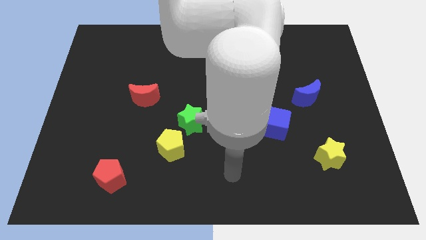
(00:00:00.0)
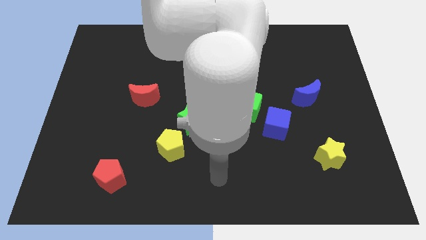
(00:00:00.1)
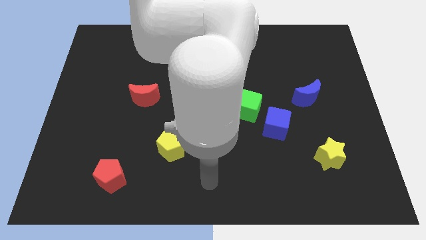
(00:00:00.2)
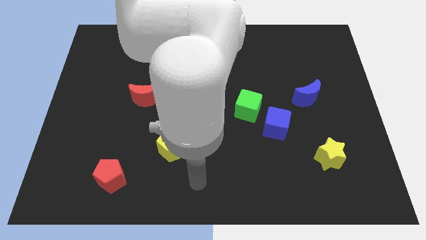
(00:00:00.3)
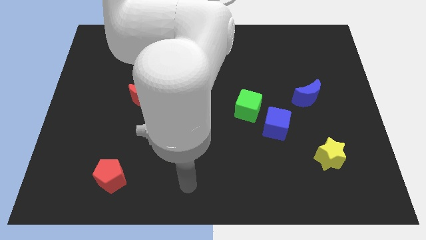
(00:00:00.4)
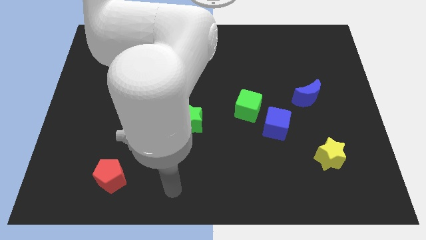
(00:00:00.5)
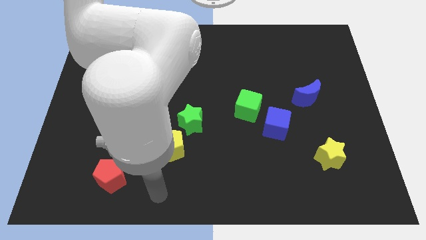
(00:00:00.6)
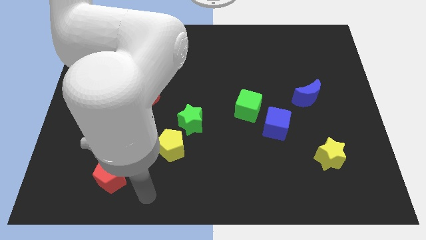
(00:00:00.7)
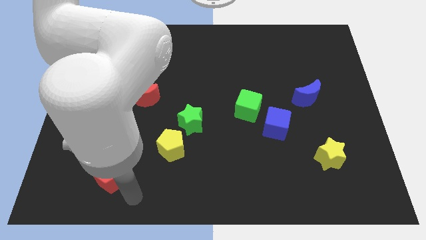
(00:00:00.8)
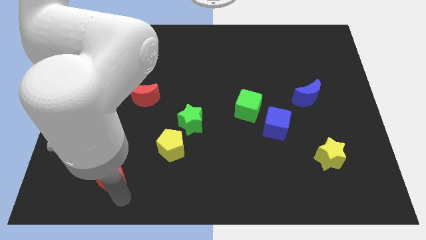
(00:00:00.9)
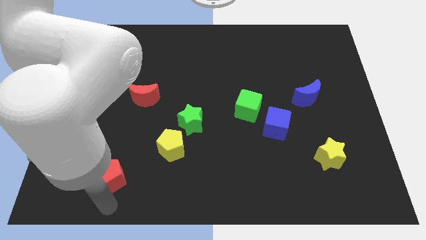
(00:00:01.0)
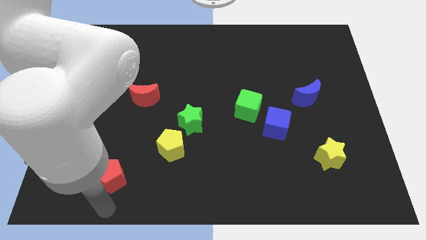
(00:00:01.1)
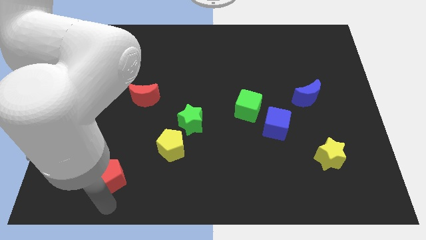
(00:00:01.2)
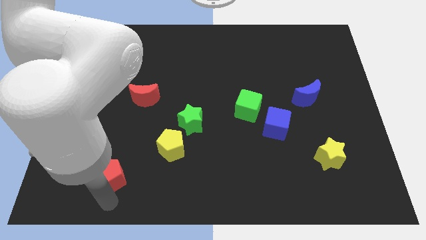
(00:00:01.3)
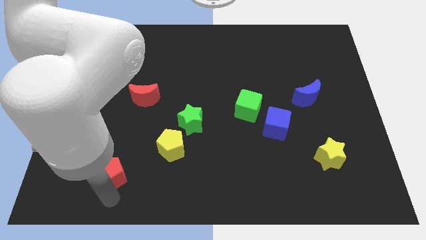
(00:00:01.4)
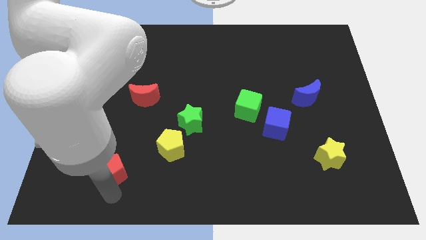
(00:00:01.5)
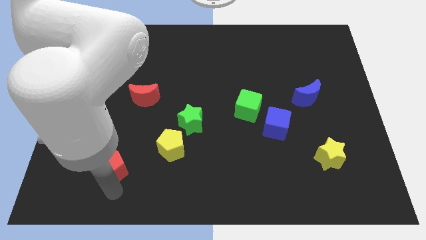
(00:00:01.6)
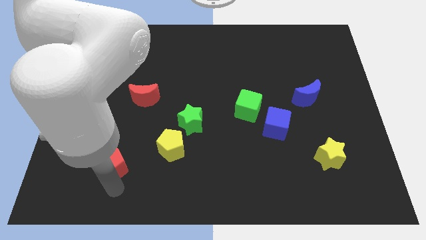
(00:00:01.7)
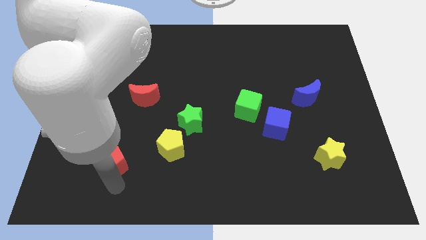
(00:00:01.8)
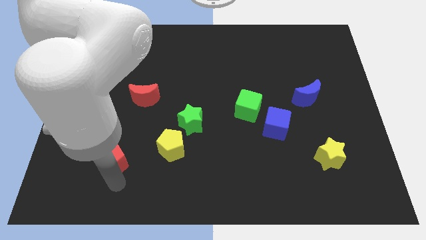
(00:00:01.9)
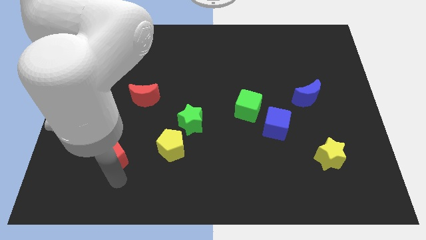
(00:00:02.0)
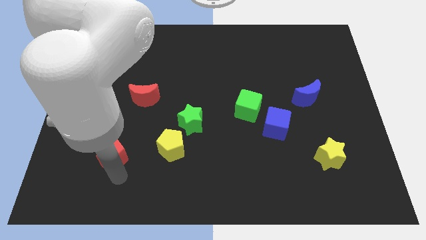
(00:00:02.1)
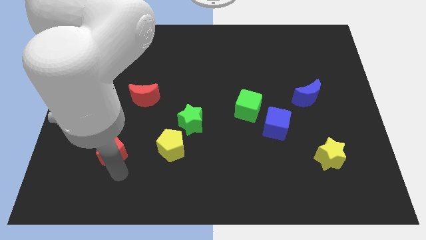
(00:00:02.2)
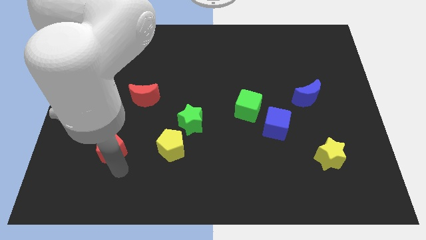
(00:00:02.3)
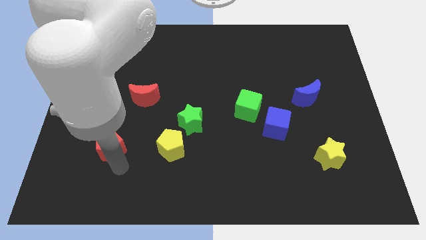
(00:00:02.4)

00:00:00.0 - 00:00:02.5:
slide the red pentagon somewhat up

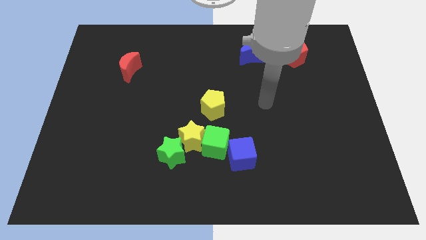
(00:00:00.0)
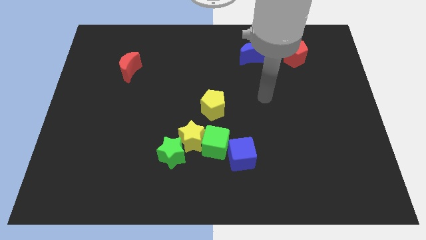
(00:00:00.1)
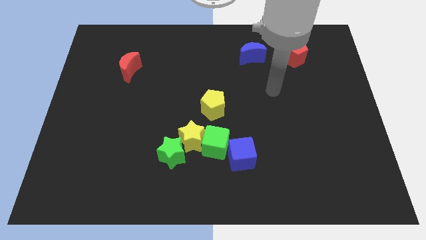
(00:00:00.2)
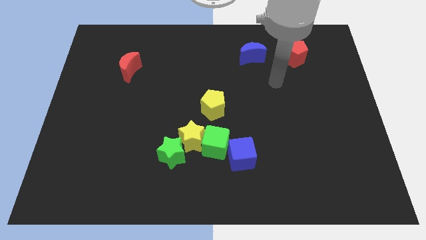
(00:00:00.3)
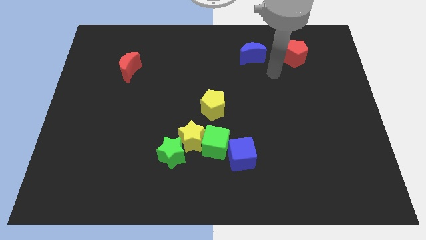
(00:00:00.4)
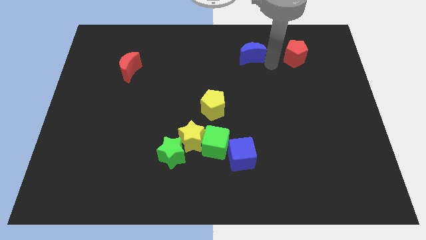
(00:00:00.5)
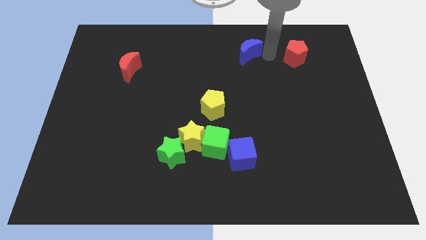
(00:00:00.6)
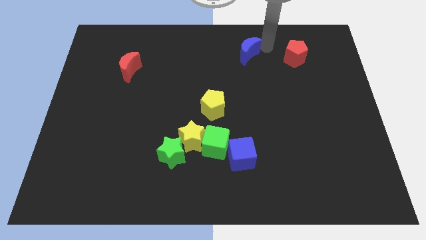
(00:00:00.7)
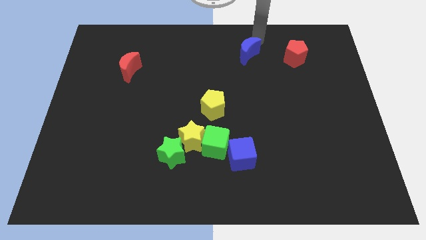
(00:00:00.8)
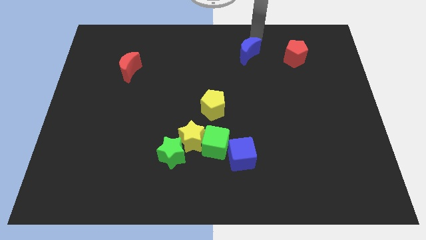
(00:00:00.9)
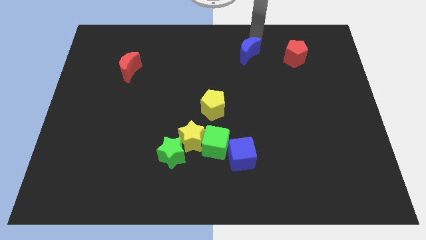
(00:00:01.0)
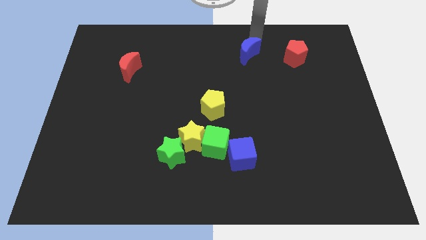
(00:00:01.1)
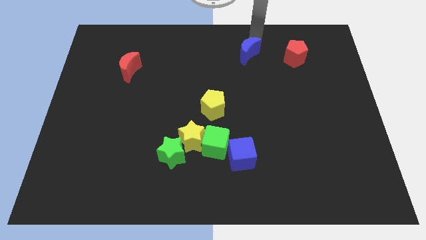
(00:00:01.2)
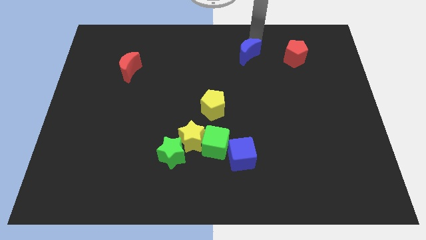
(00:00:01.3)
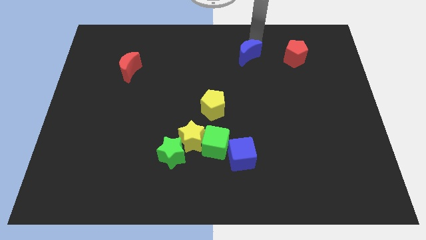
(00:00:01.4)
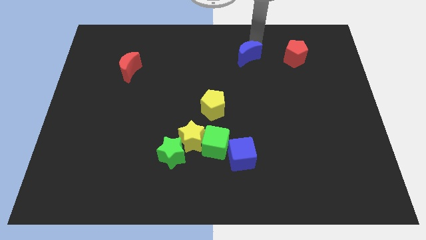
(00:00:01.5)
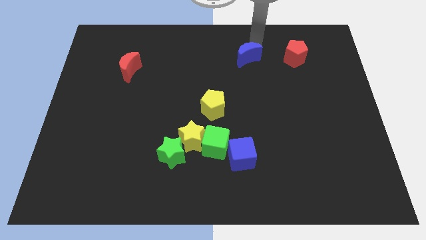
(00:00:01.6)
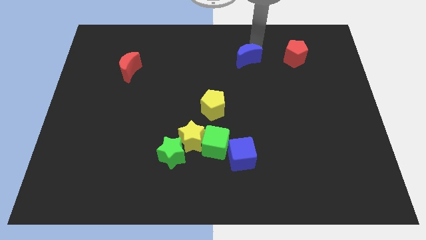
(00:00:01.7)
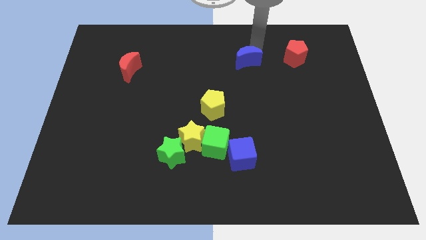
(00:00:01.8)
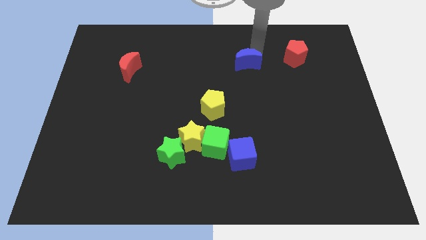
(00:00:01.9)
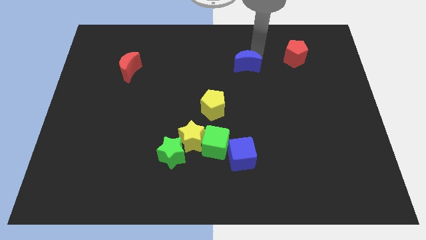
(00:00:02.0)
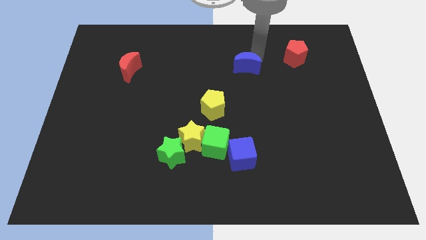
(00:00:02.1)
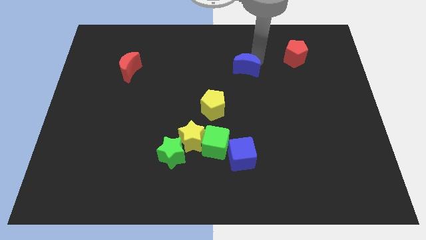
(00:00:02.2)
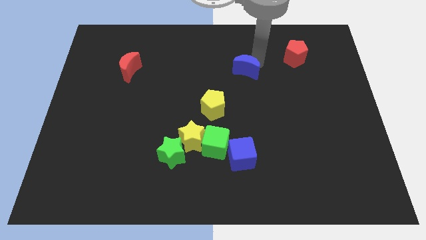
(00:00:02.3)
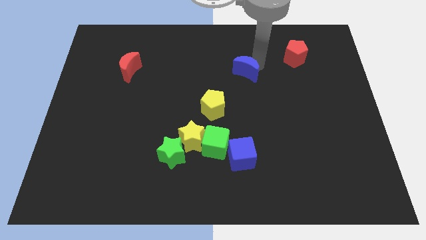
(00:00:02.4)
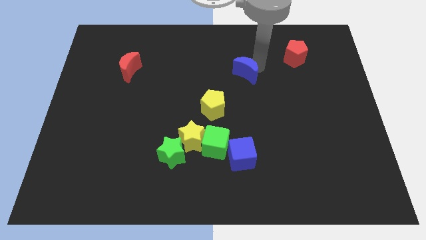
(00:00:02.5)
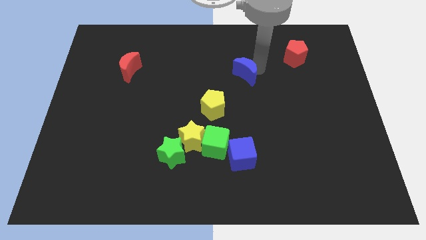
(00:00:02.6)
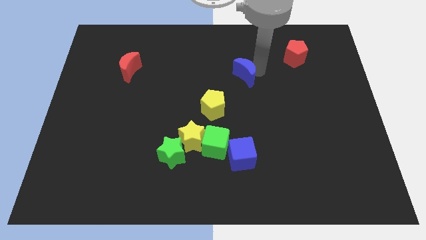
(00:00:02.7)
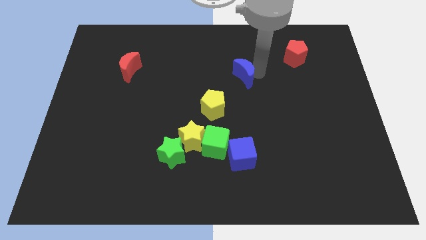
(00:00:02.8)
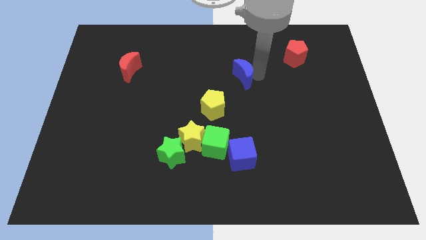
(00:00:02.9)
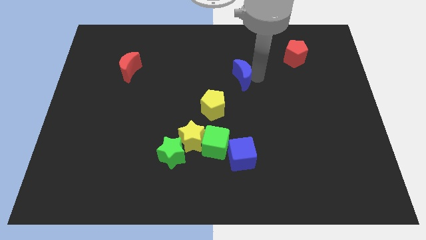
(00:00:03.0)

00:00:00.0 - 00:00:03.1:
slide the blue moon diagonally downwards and to the left a little

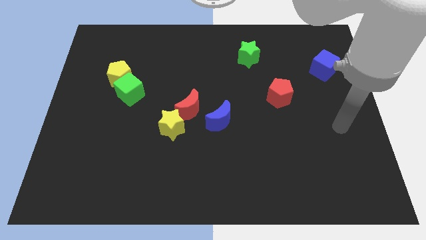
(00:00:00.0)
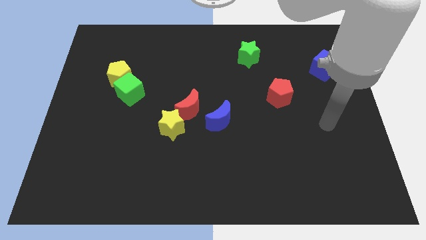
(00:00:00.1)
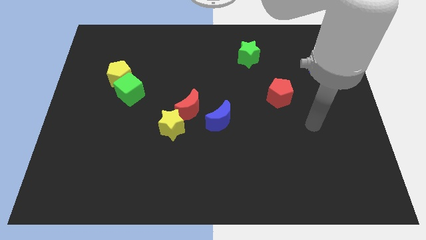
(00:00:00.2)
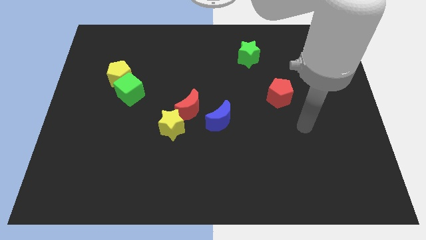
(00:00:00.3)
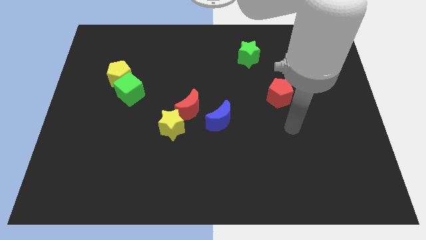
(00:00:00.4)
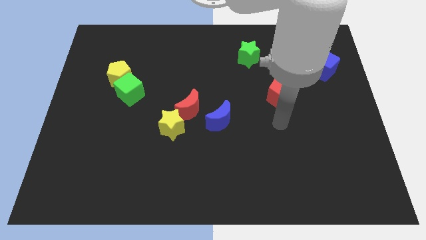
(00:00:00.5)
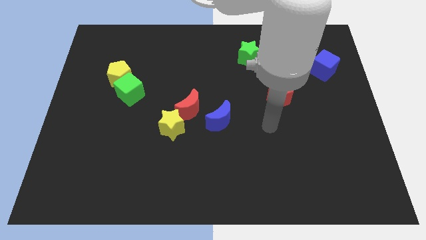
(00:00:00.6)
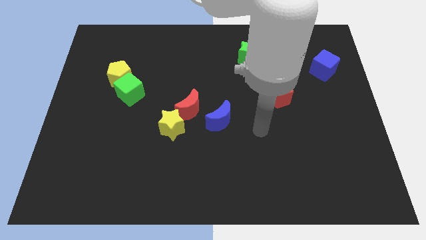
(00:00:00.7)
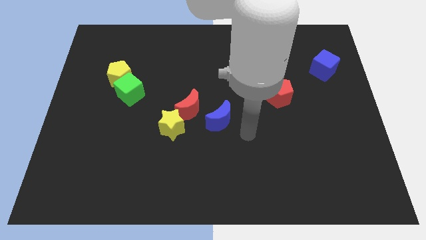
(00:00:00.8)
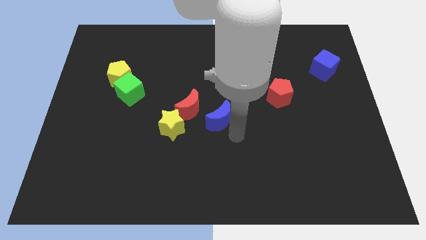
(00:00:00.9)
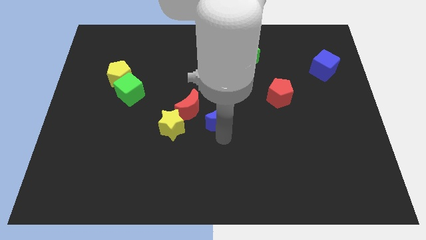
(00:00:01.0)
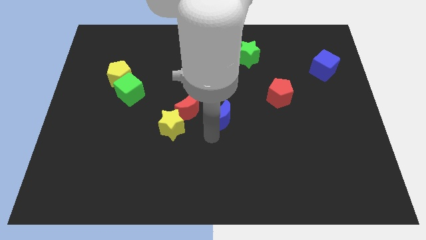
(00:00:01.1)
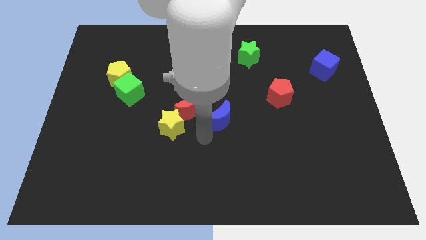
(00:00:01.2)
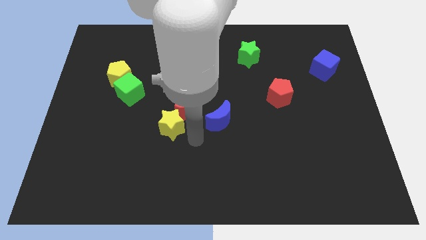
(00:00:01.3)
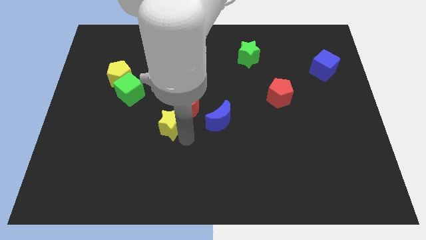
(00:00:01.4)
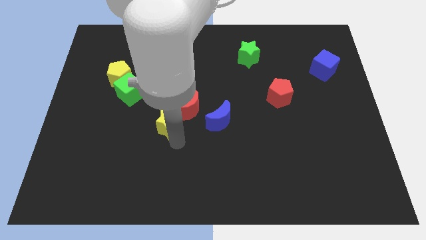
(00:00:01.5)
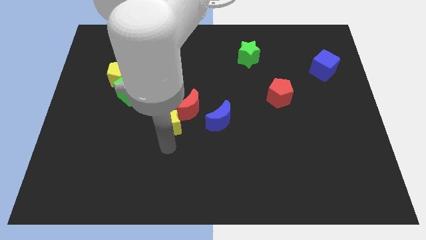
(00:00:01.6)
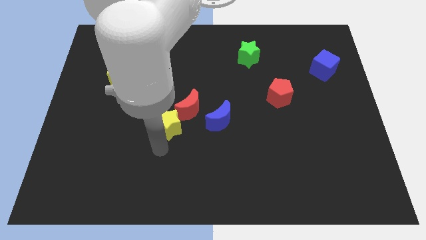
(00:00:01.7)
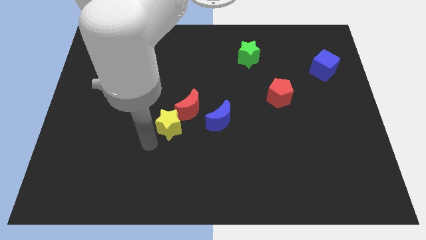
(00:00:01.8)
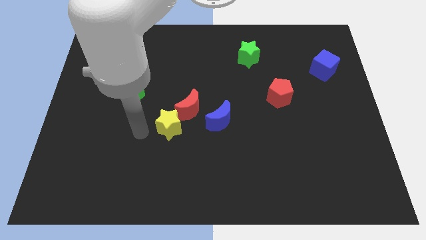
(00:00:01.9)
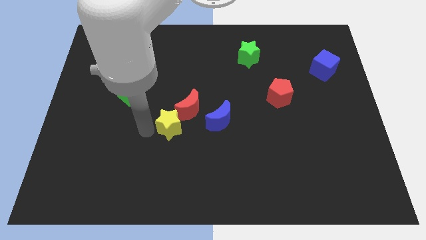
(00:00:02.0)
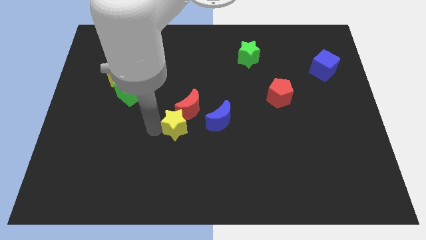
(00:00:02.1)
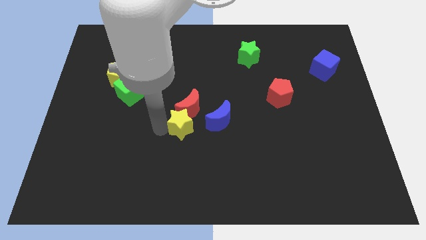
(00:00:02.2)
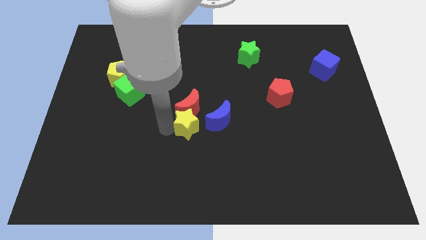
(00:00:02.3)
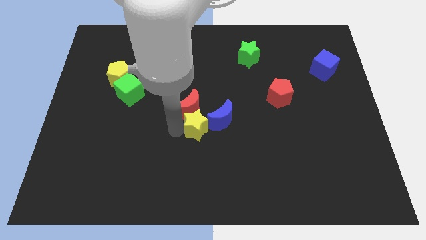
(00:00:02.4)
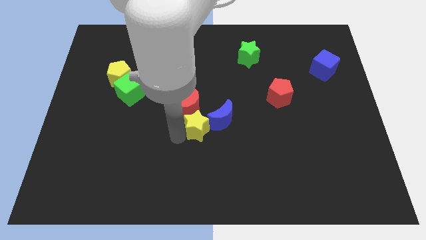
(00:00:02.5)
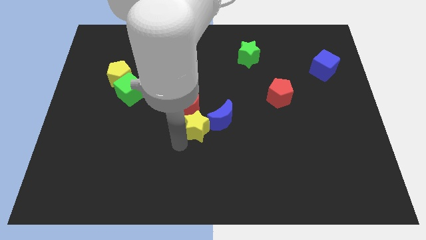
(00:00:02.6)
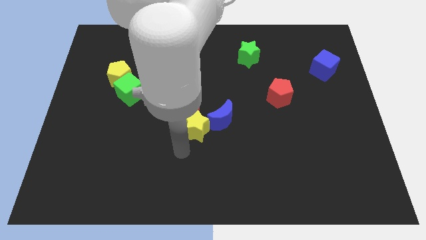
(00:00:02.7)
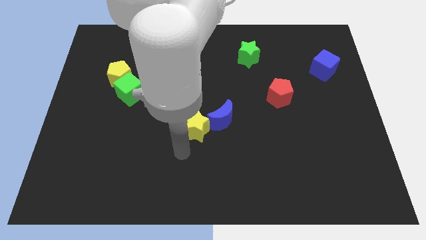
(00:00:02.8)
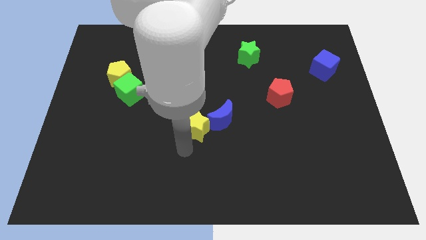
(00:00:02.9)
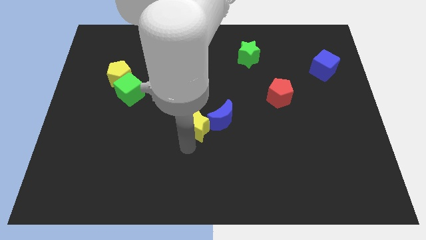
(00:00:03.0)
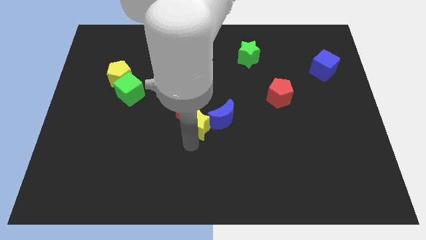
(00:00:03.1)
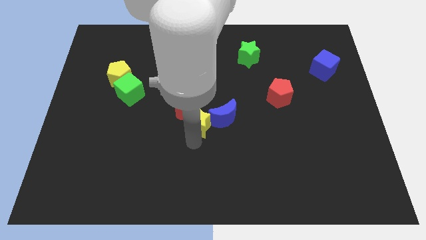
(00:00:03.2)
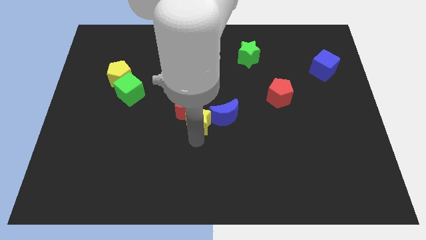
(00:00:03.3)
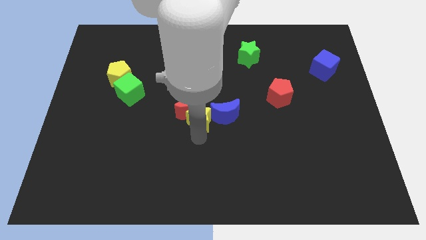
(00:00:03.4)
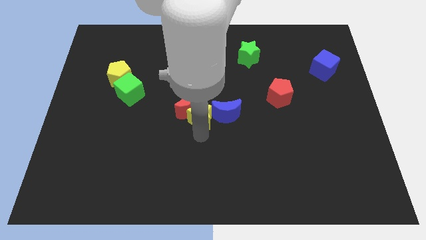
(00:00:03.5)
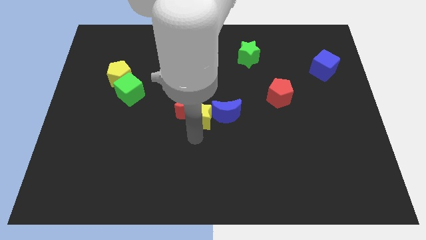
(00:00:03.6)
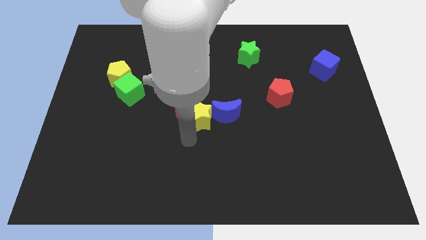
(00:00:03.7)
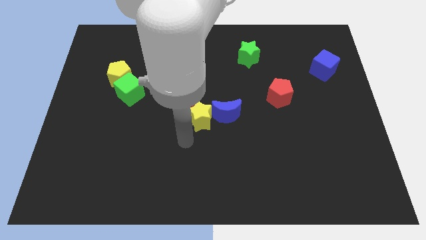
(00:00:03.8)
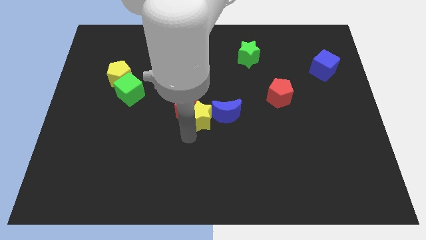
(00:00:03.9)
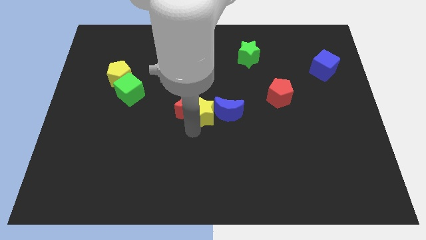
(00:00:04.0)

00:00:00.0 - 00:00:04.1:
slide the yellow star a bit diagonally up and to the right
